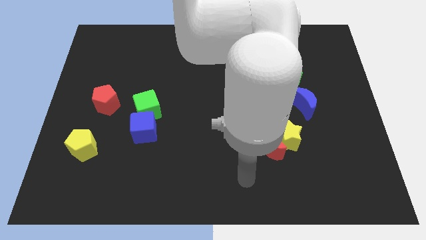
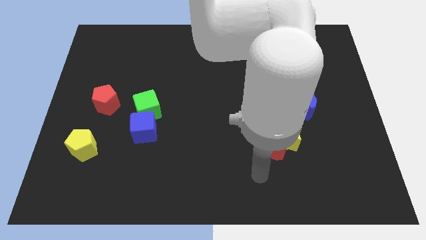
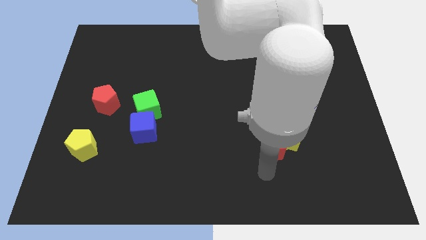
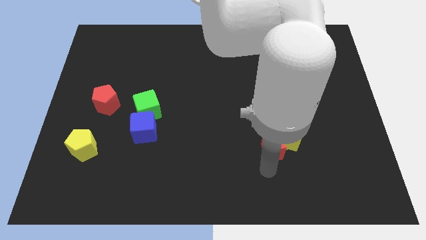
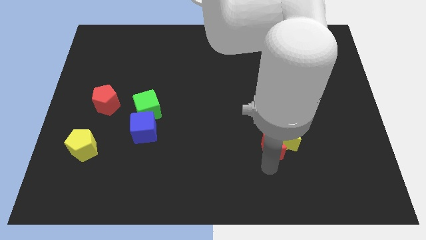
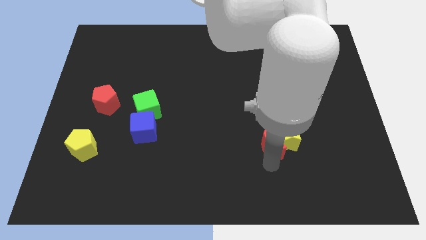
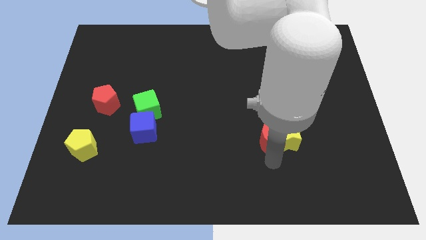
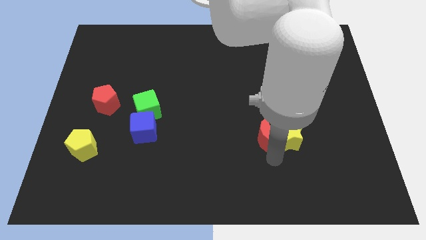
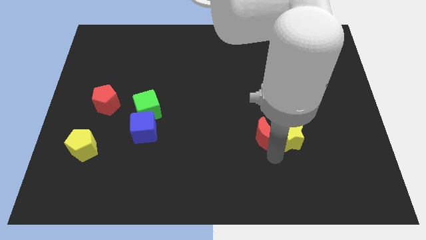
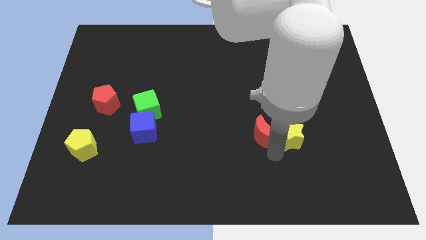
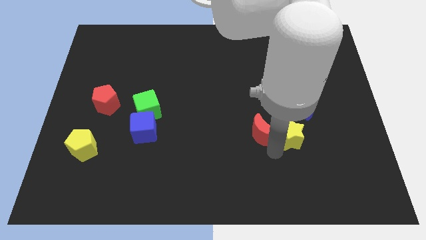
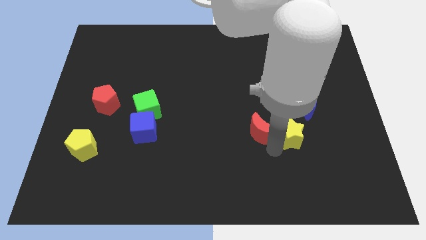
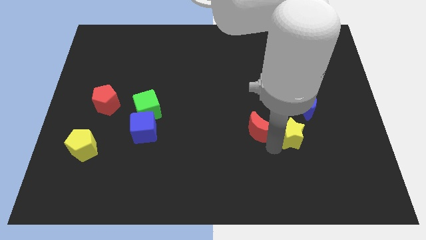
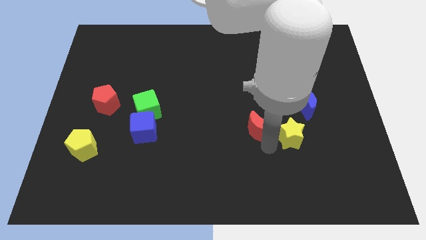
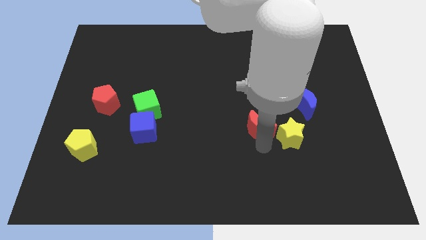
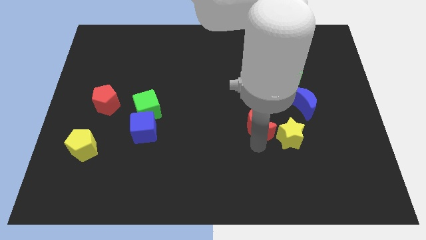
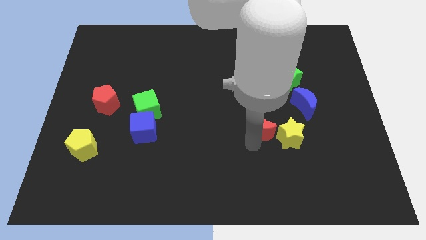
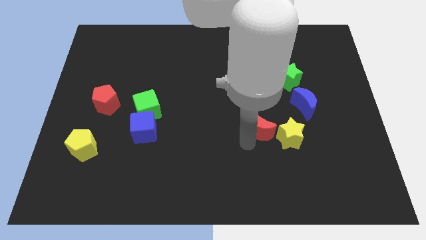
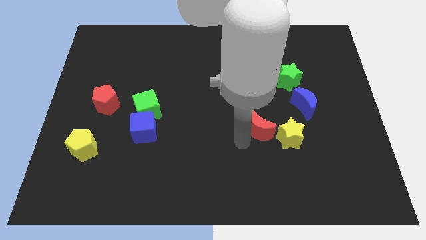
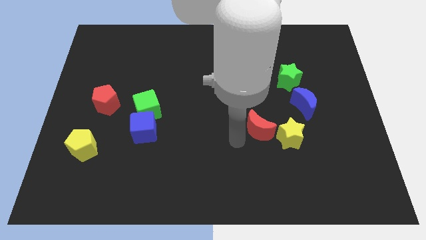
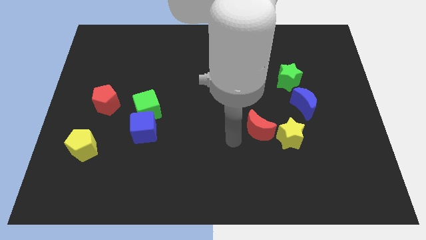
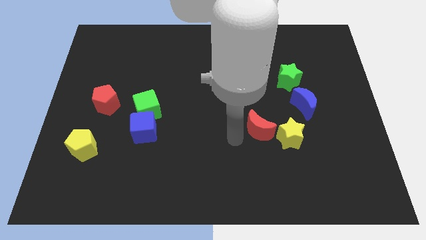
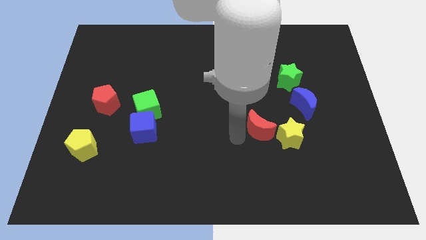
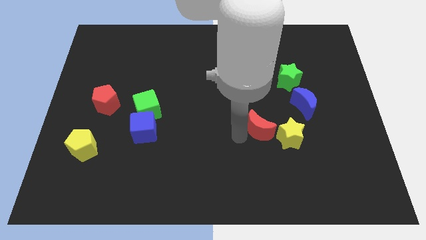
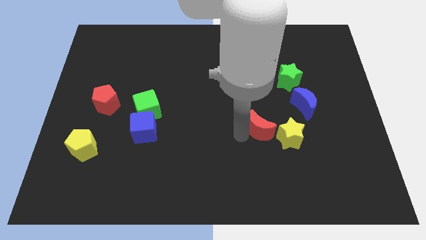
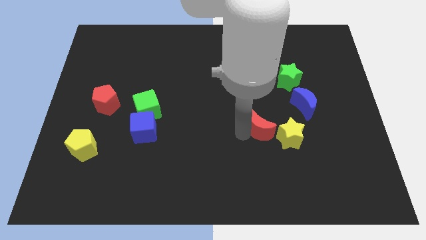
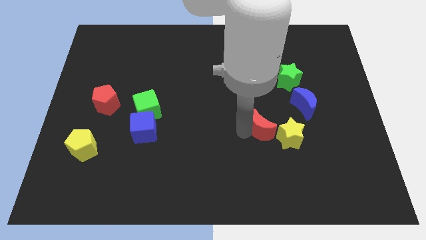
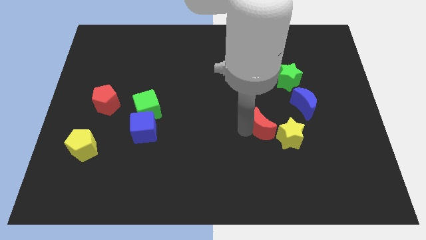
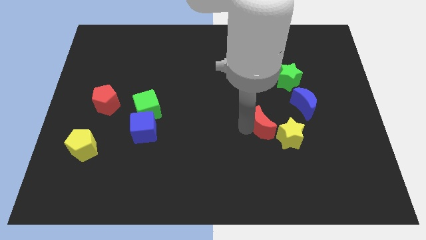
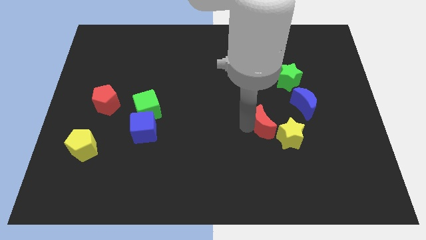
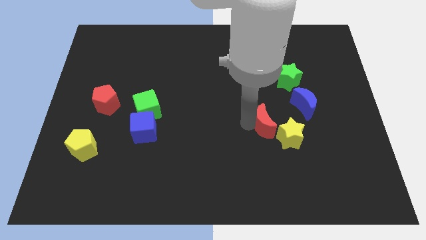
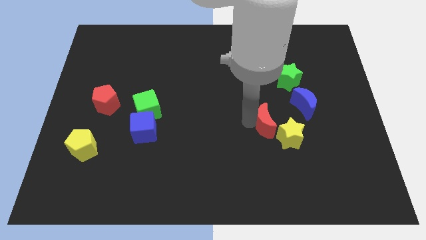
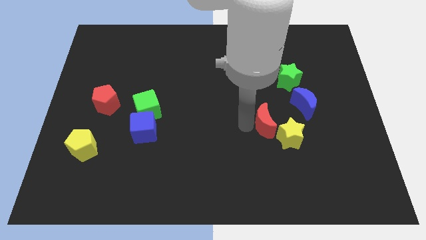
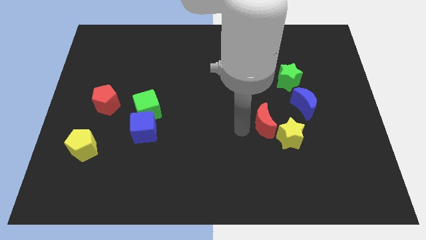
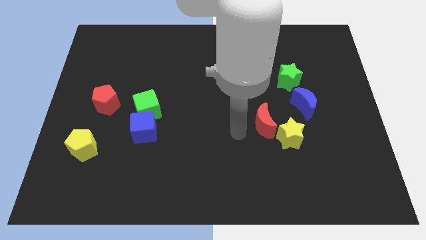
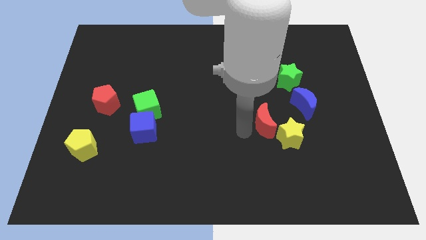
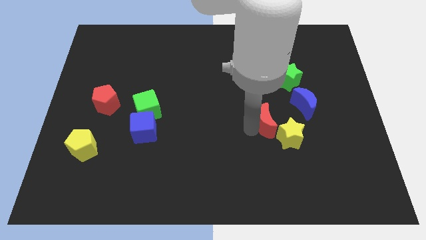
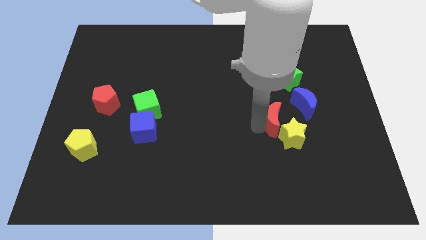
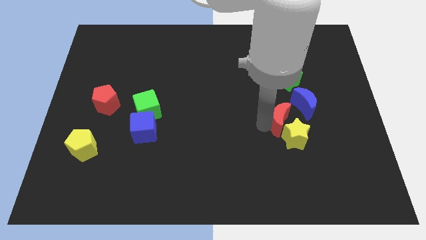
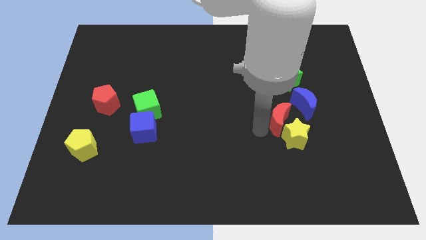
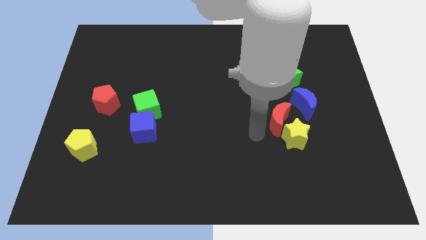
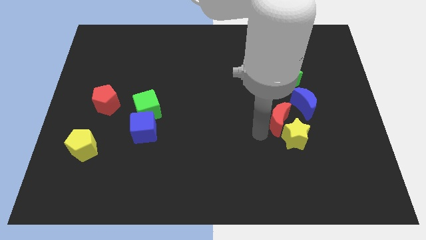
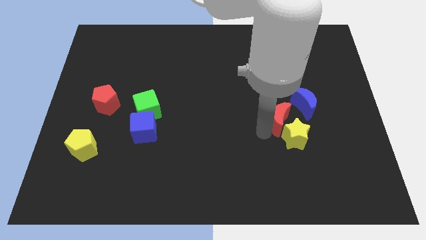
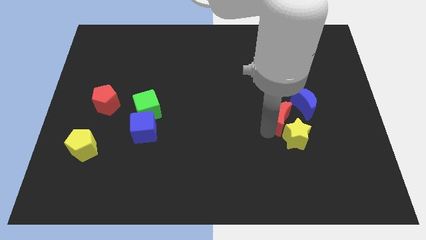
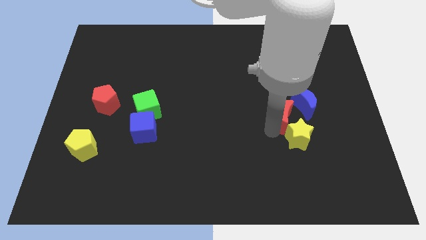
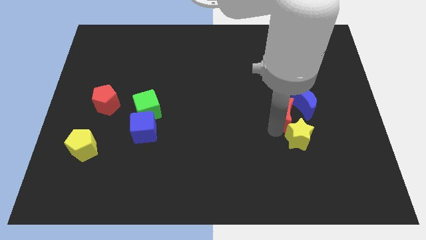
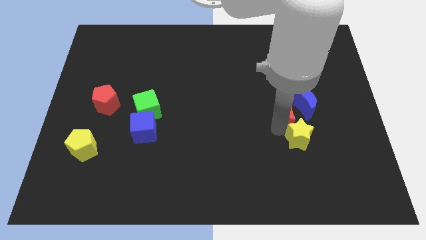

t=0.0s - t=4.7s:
slide the red moon to the blue moon

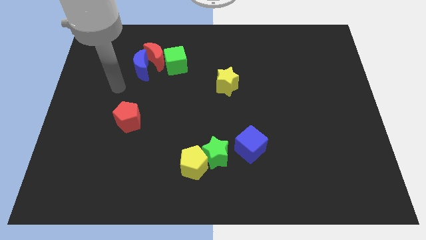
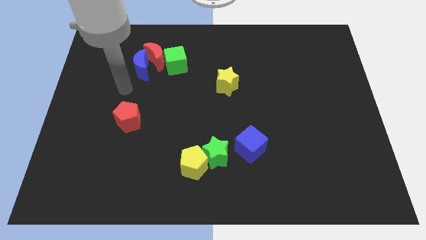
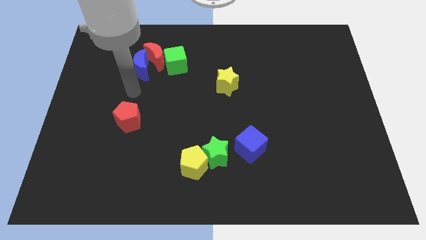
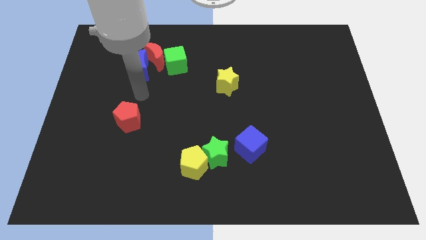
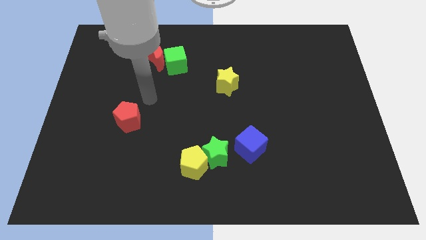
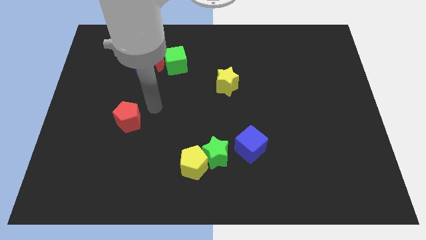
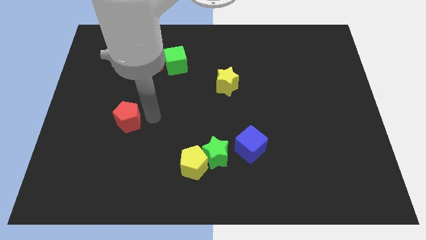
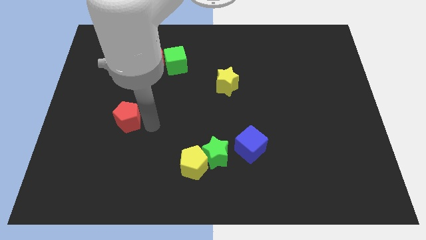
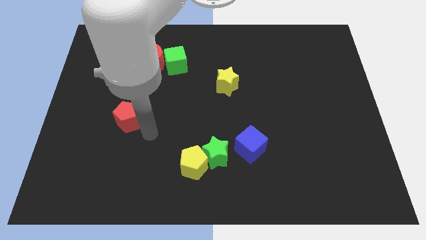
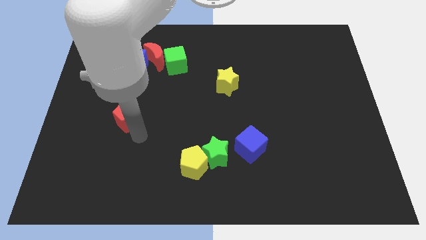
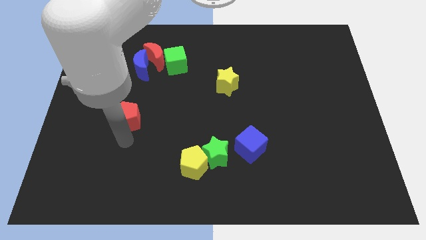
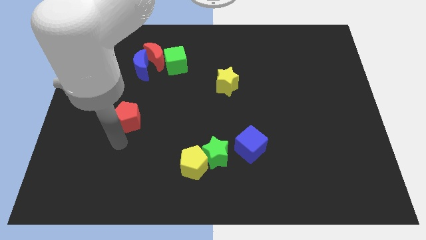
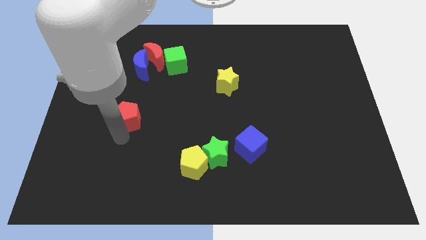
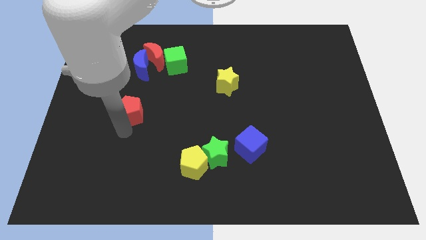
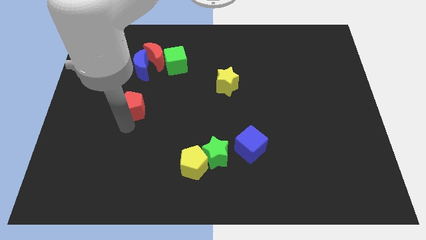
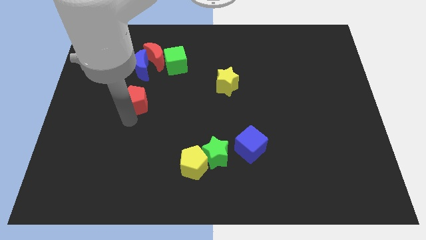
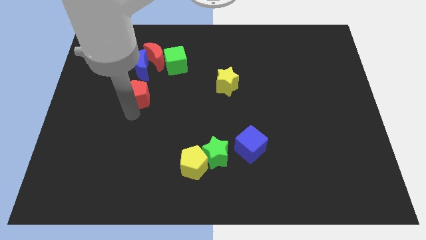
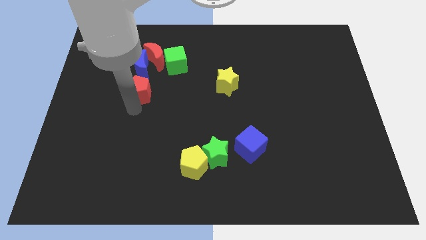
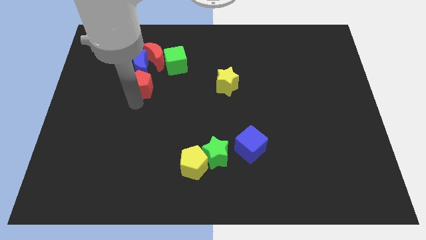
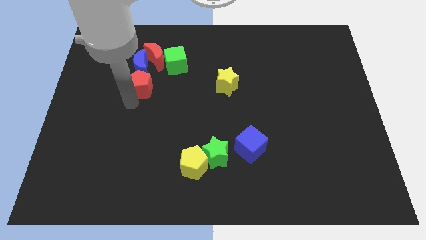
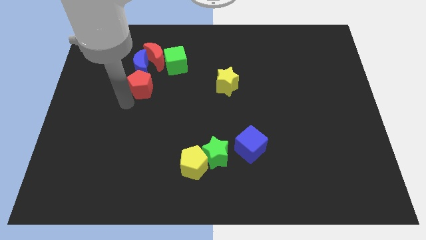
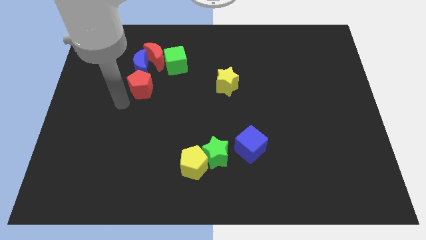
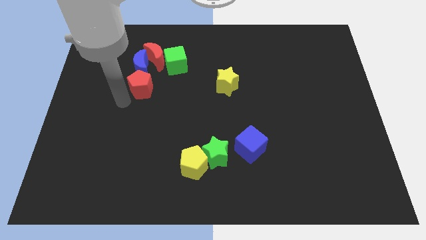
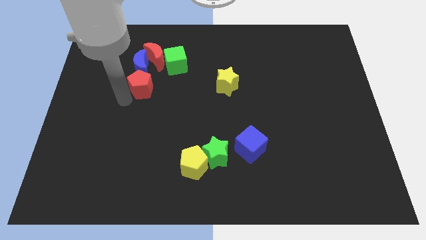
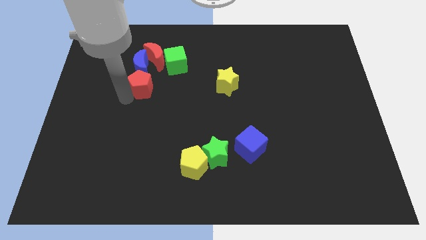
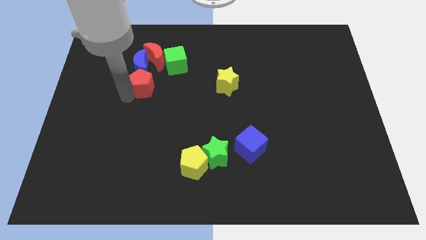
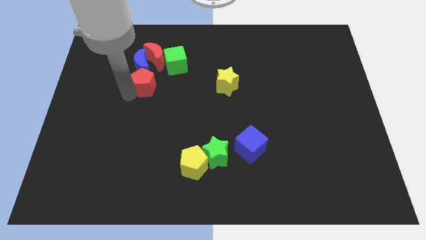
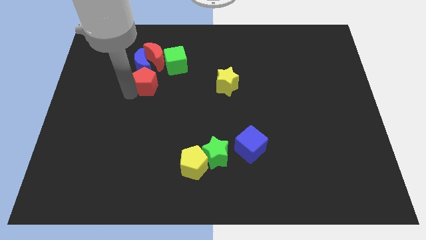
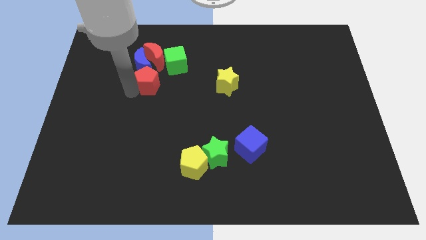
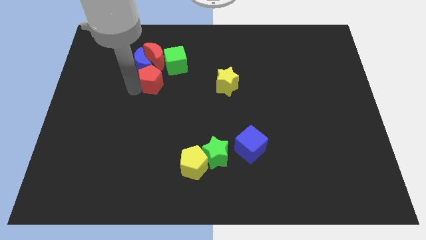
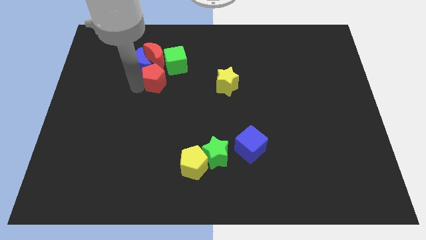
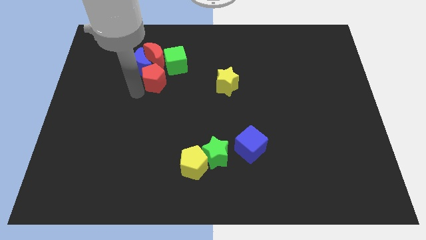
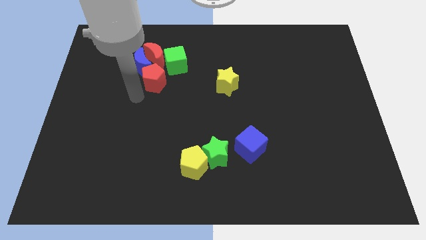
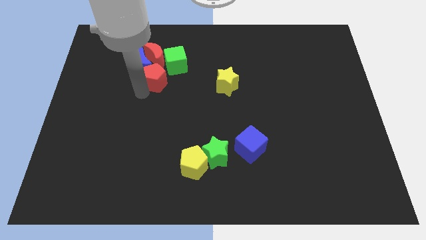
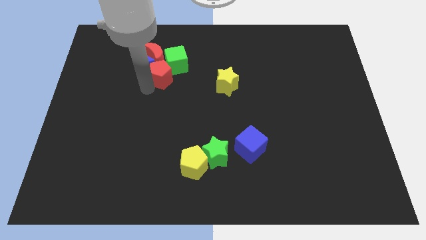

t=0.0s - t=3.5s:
put the red pentagon close to the green cube

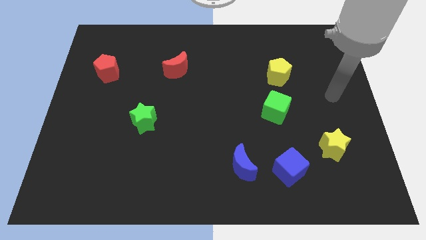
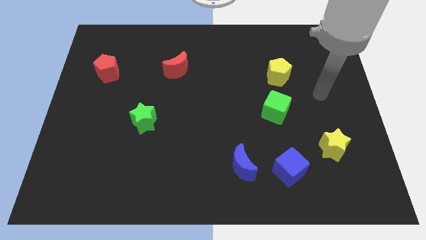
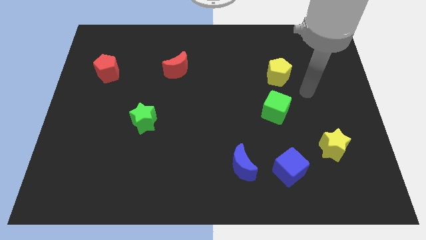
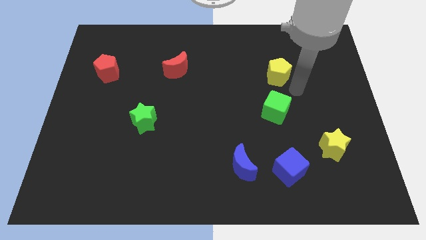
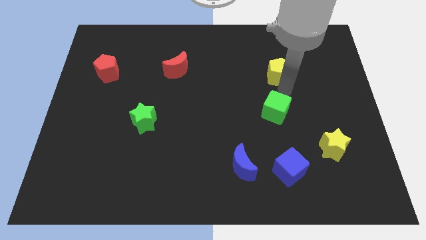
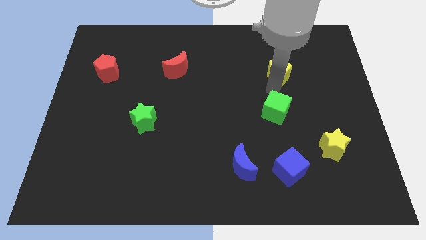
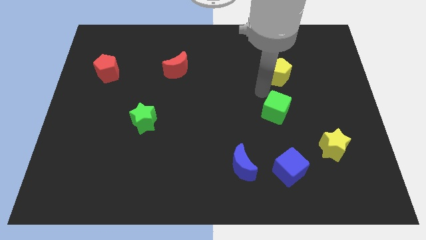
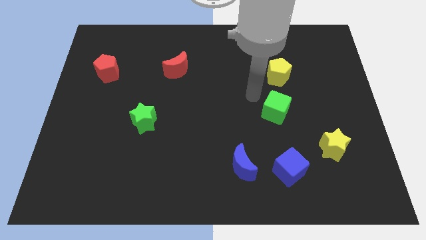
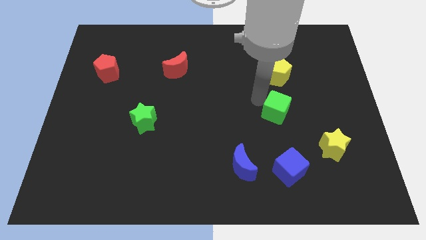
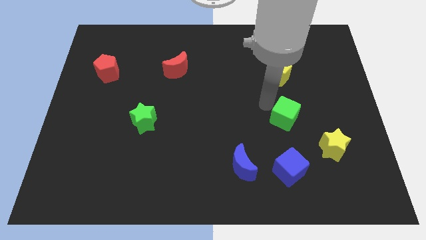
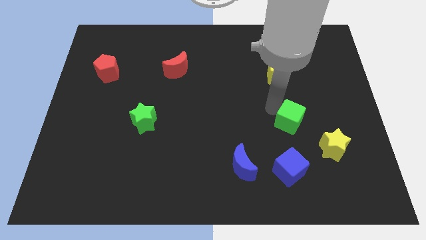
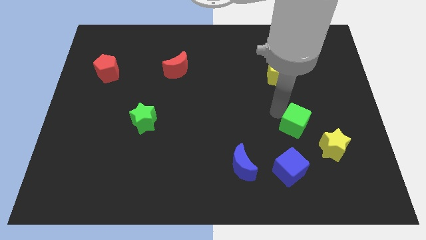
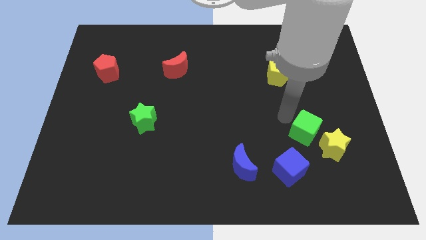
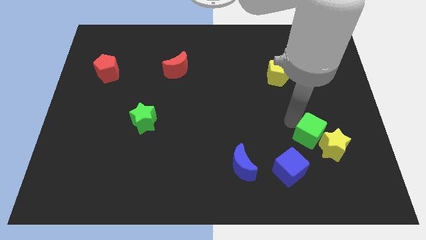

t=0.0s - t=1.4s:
slide the green cube next to the yellow star
